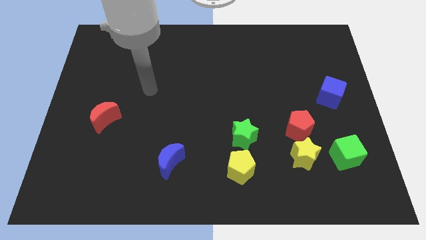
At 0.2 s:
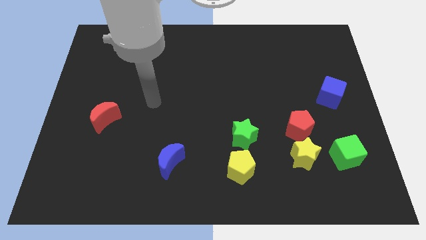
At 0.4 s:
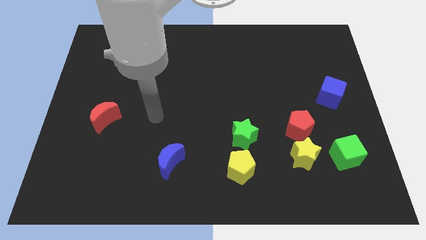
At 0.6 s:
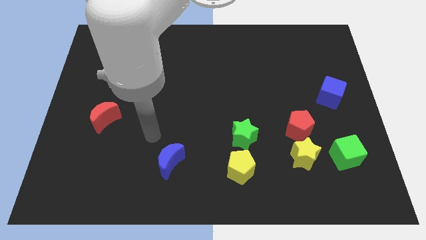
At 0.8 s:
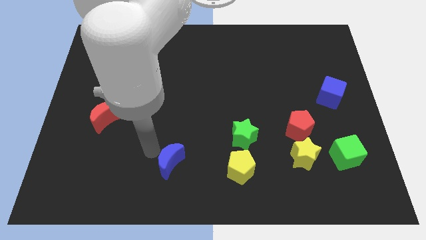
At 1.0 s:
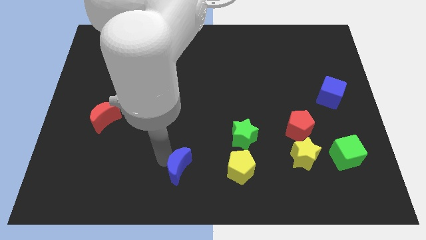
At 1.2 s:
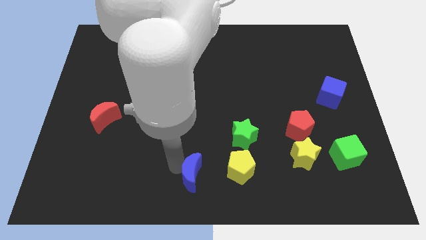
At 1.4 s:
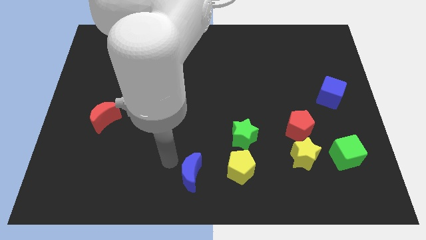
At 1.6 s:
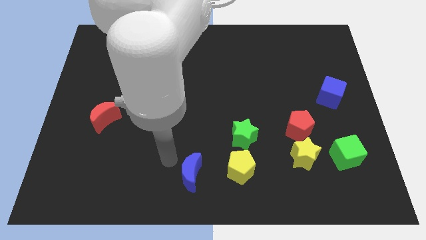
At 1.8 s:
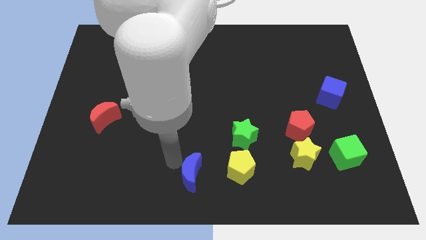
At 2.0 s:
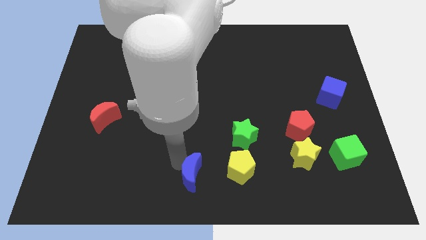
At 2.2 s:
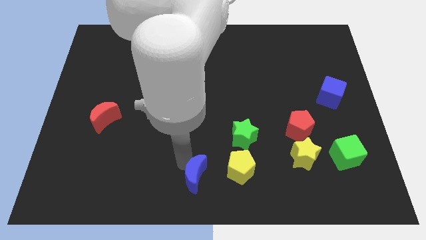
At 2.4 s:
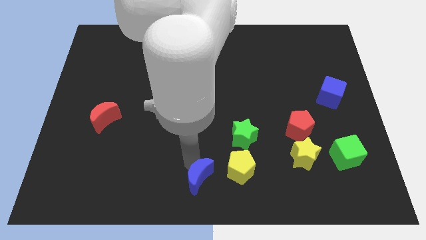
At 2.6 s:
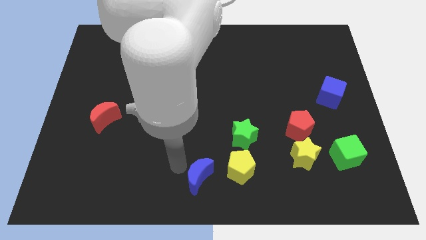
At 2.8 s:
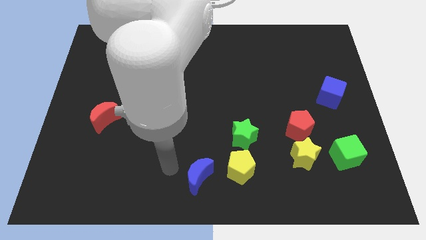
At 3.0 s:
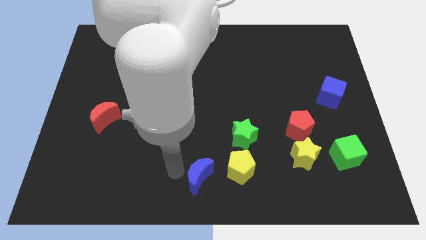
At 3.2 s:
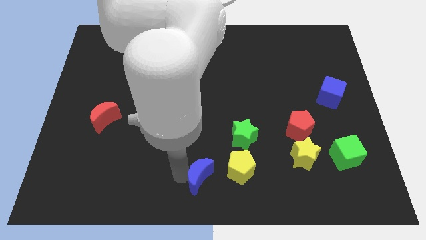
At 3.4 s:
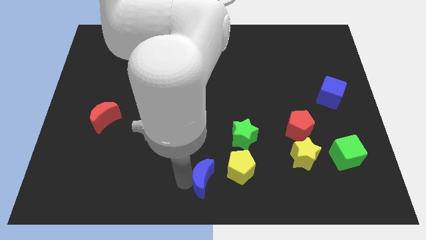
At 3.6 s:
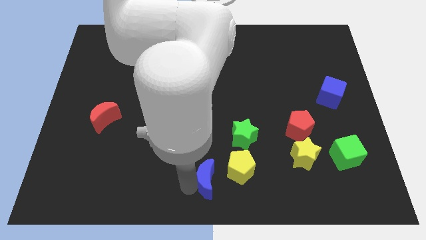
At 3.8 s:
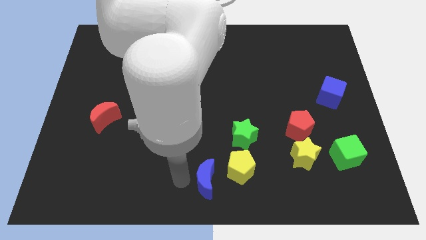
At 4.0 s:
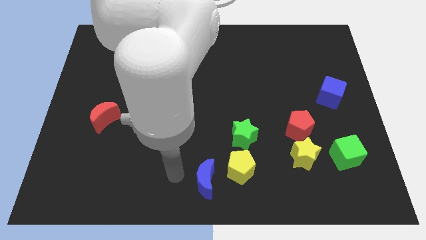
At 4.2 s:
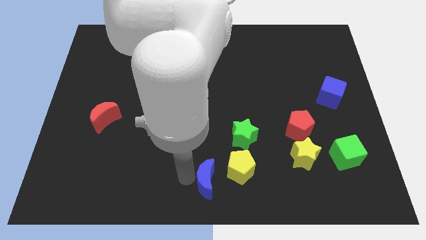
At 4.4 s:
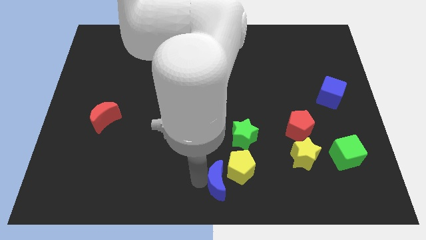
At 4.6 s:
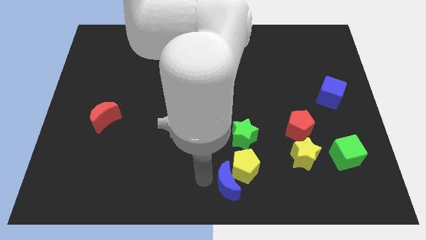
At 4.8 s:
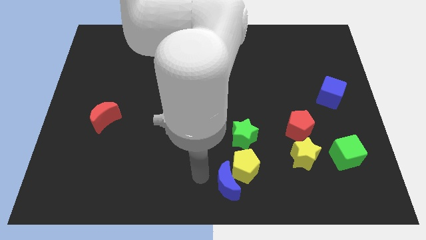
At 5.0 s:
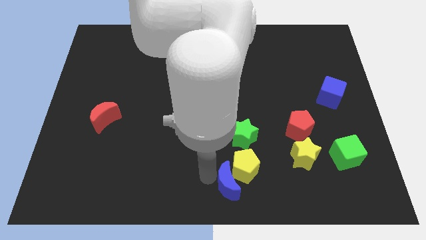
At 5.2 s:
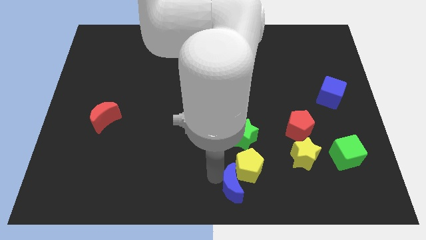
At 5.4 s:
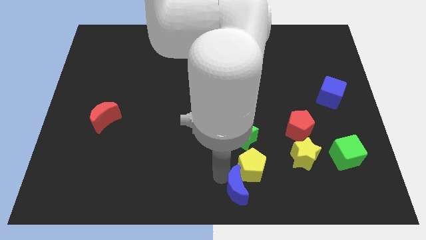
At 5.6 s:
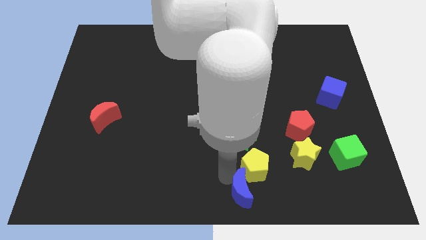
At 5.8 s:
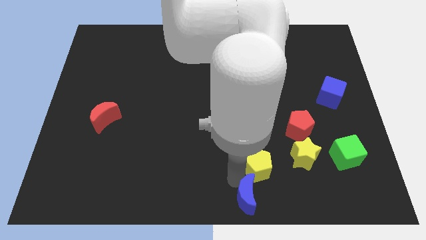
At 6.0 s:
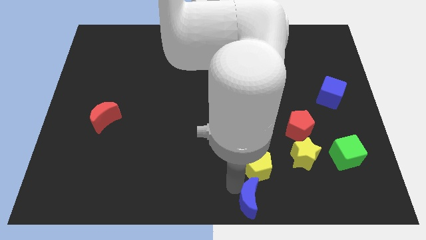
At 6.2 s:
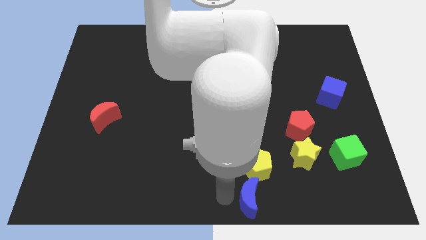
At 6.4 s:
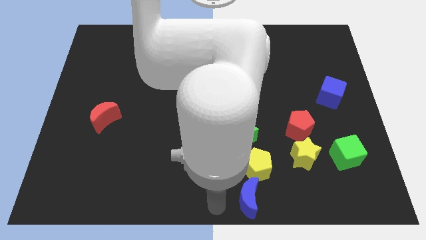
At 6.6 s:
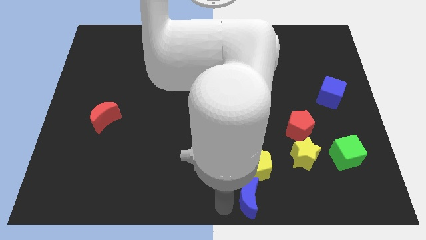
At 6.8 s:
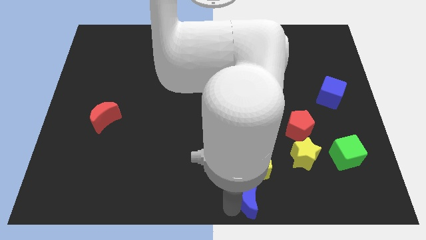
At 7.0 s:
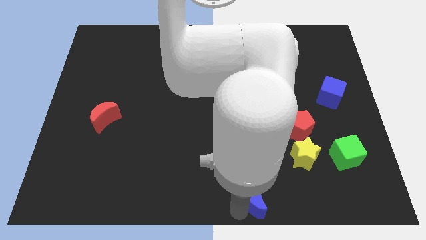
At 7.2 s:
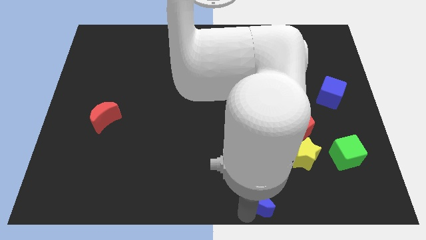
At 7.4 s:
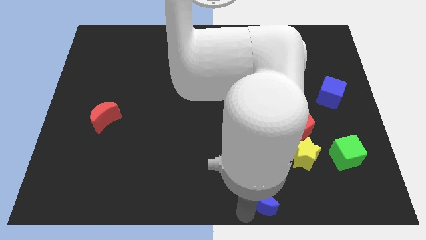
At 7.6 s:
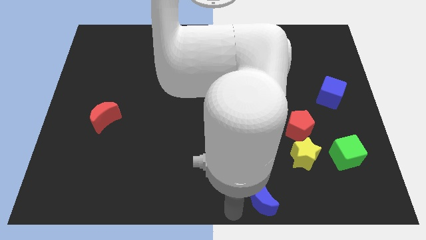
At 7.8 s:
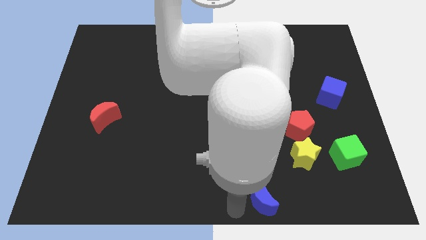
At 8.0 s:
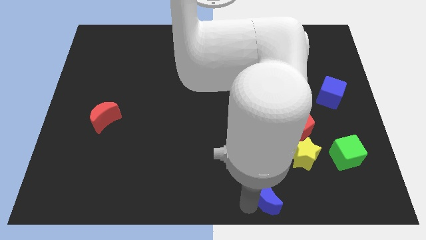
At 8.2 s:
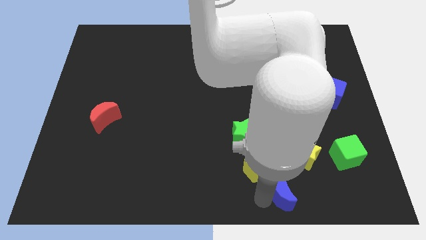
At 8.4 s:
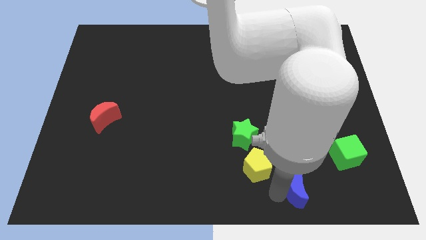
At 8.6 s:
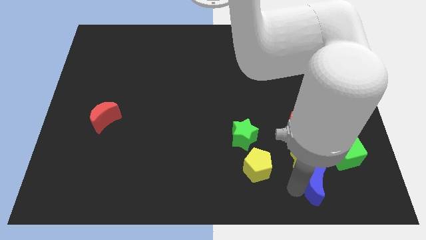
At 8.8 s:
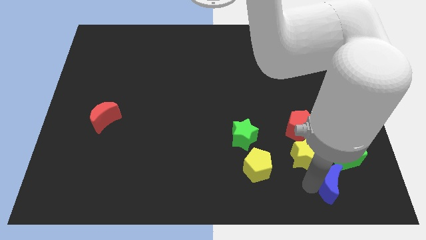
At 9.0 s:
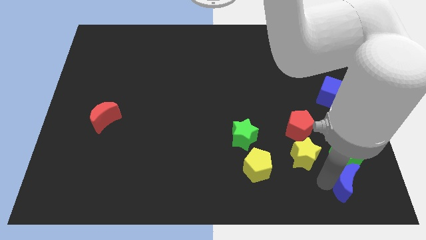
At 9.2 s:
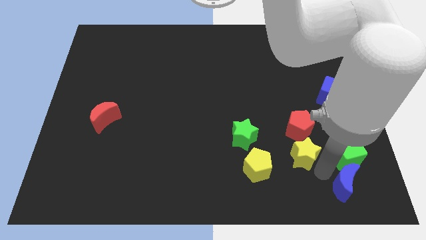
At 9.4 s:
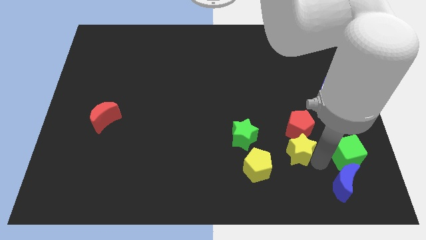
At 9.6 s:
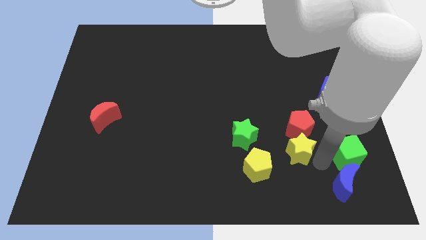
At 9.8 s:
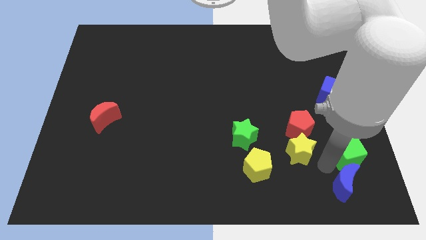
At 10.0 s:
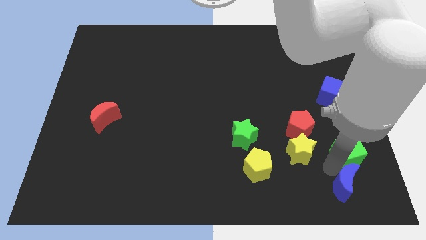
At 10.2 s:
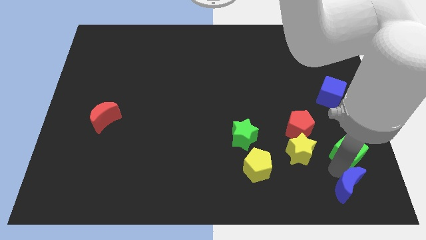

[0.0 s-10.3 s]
move the blue moon to the lower right corner

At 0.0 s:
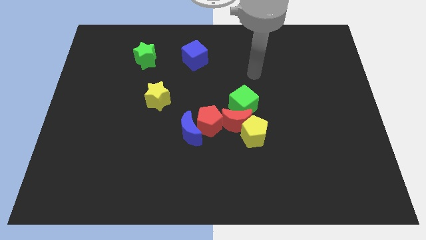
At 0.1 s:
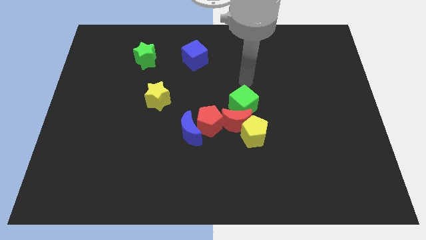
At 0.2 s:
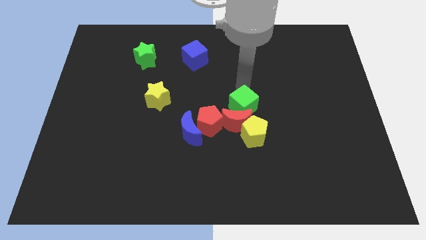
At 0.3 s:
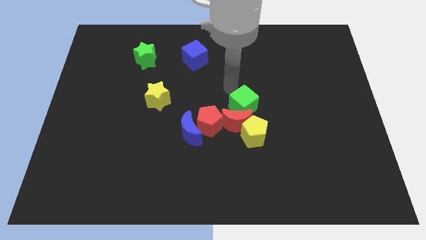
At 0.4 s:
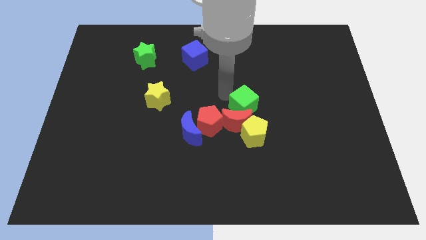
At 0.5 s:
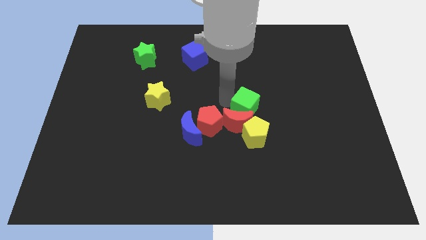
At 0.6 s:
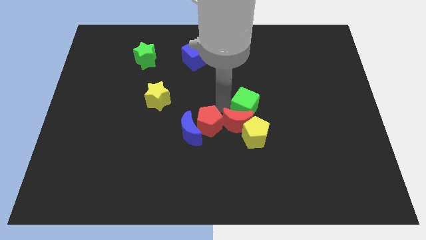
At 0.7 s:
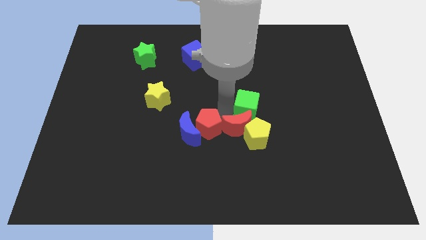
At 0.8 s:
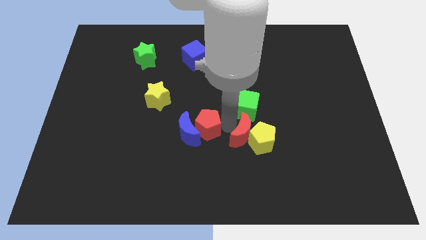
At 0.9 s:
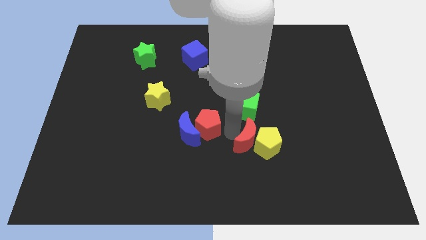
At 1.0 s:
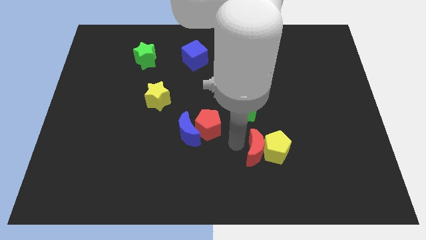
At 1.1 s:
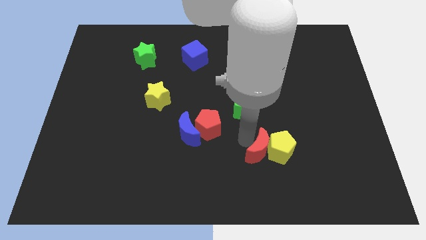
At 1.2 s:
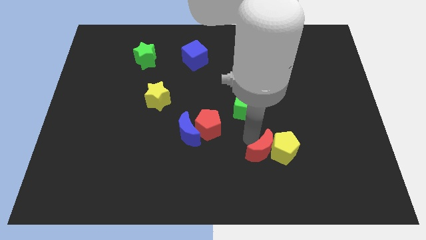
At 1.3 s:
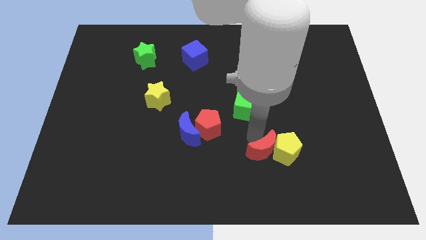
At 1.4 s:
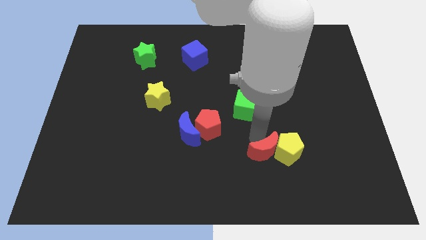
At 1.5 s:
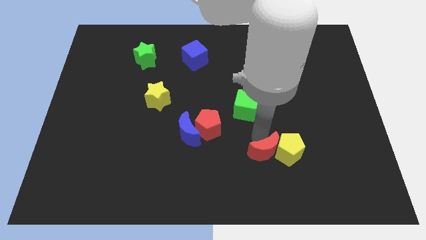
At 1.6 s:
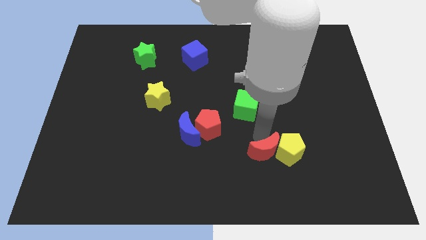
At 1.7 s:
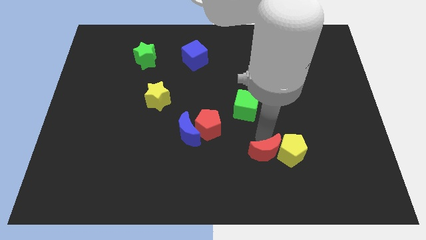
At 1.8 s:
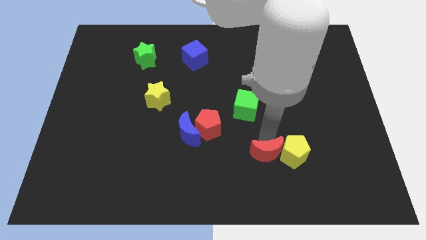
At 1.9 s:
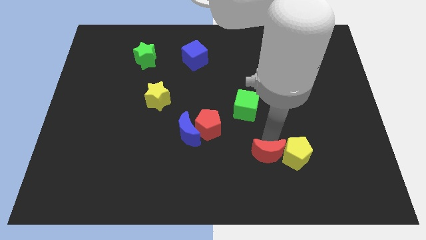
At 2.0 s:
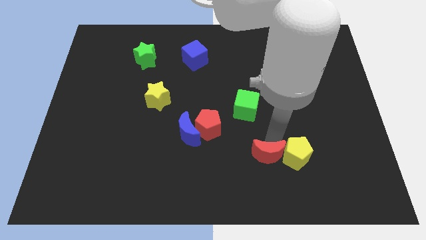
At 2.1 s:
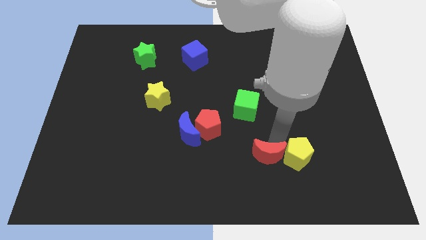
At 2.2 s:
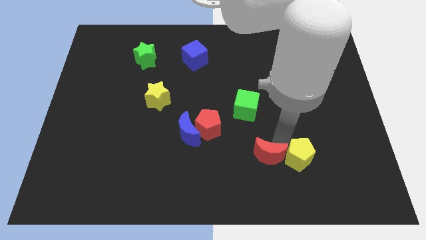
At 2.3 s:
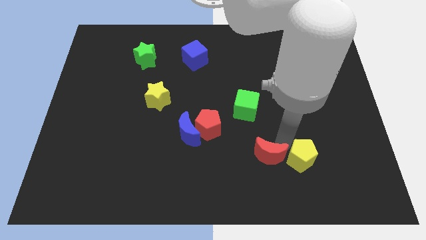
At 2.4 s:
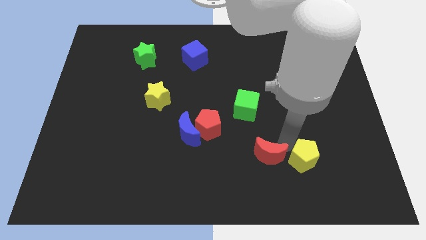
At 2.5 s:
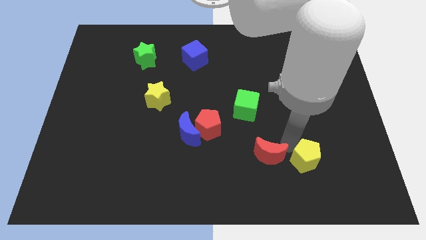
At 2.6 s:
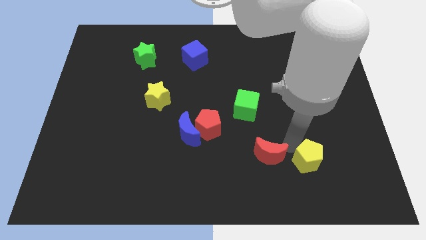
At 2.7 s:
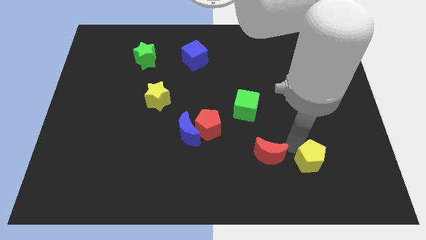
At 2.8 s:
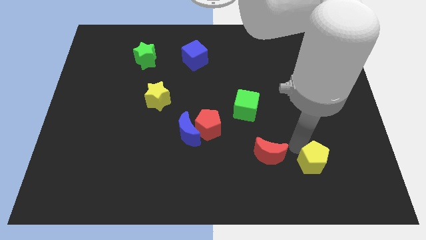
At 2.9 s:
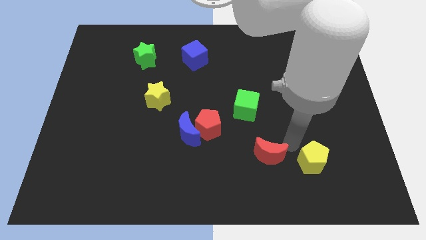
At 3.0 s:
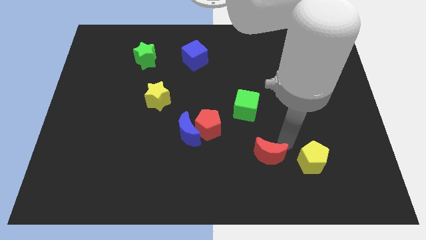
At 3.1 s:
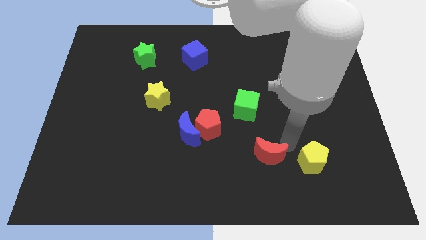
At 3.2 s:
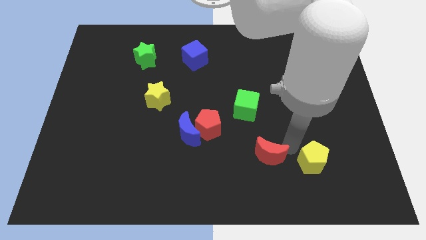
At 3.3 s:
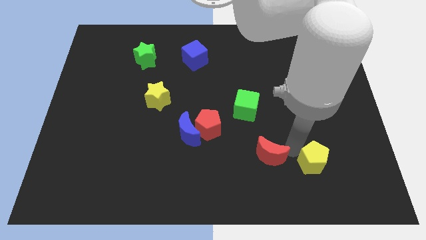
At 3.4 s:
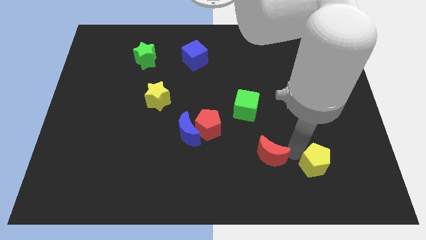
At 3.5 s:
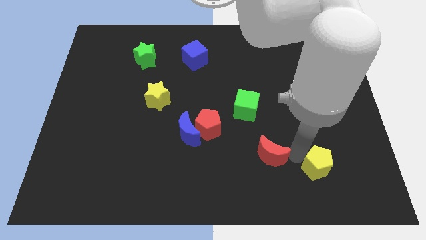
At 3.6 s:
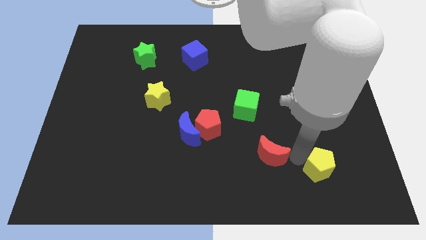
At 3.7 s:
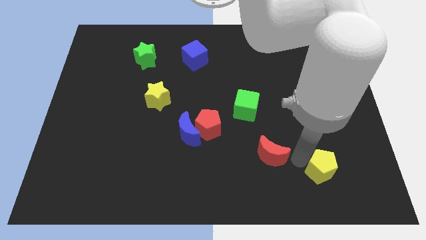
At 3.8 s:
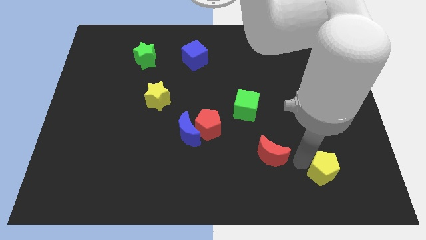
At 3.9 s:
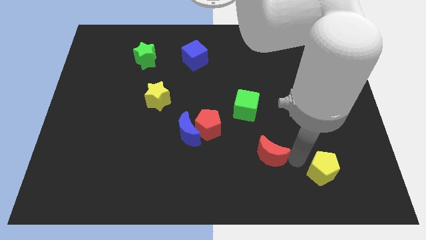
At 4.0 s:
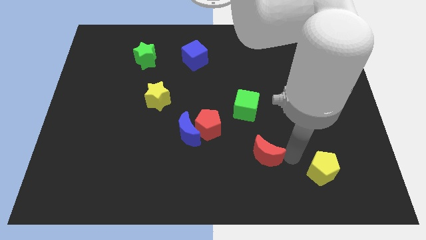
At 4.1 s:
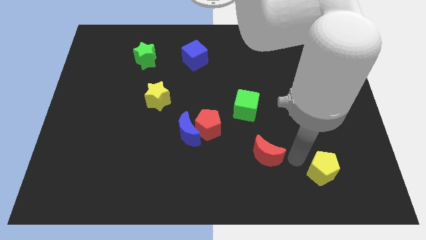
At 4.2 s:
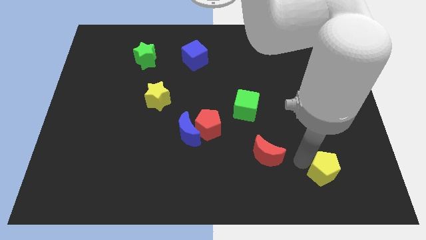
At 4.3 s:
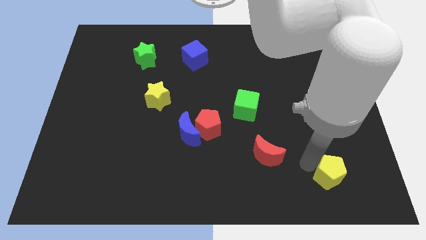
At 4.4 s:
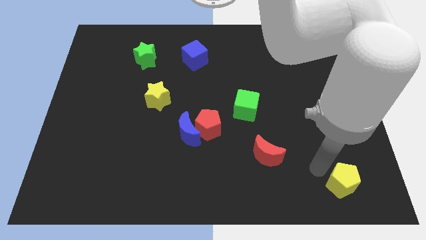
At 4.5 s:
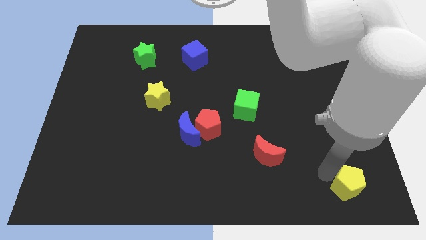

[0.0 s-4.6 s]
push the yellow pentagon to the bottom right corner
